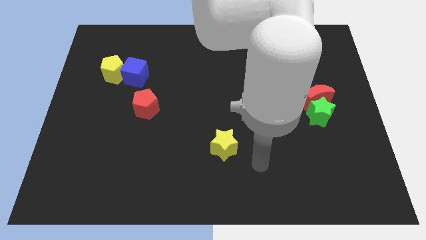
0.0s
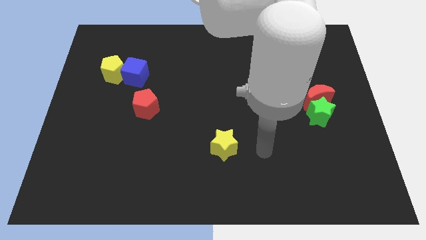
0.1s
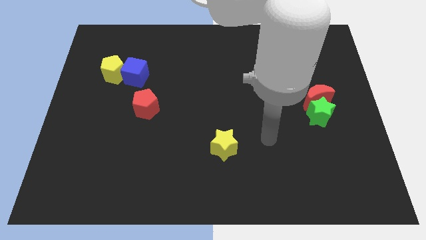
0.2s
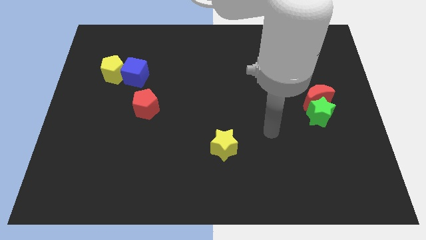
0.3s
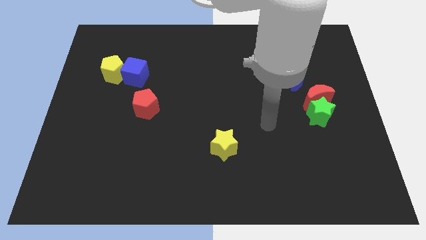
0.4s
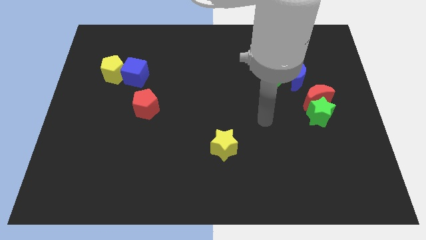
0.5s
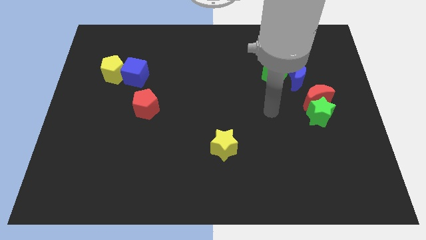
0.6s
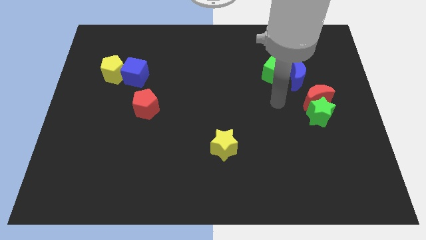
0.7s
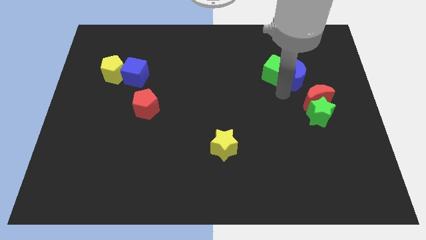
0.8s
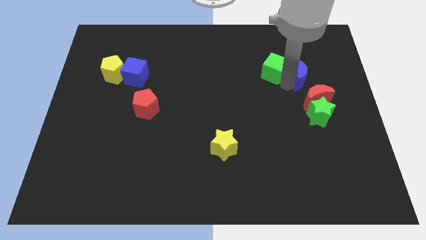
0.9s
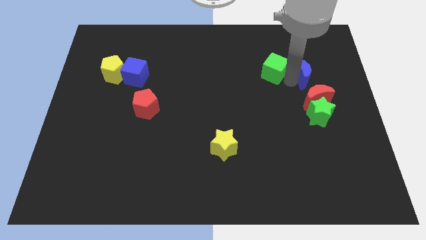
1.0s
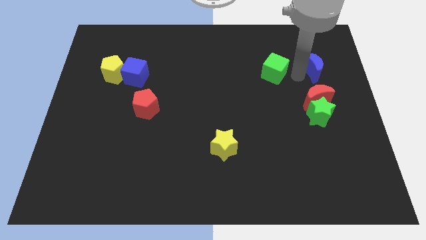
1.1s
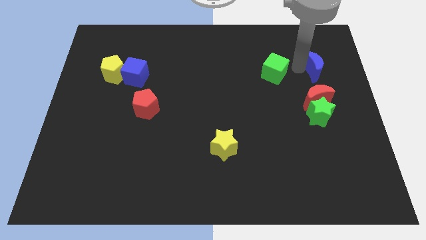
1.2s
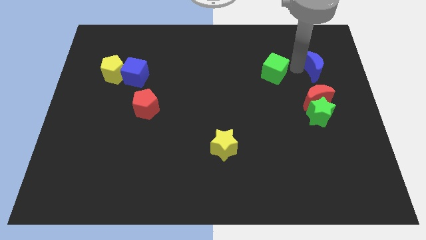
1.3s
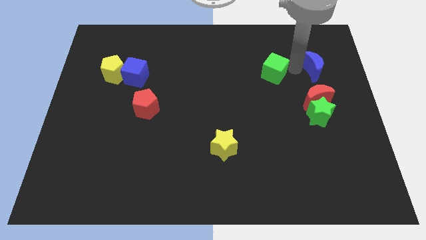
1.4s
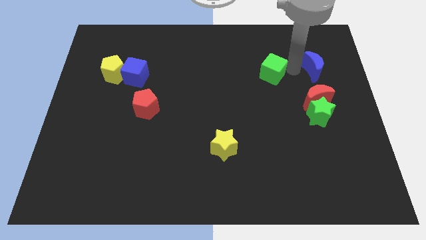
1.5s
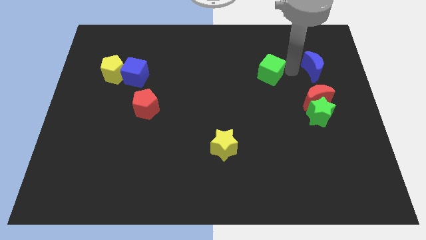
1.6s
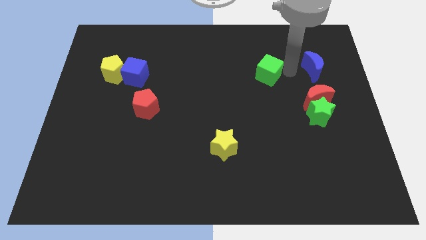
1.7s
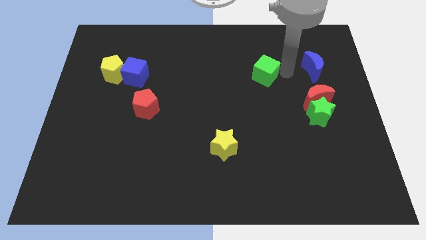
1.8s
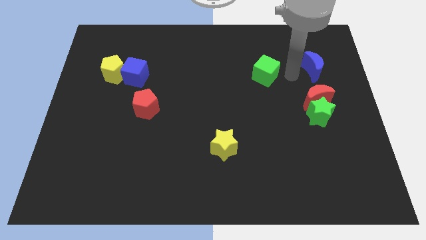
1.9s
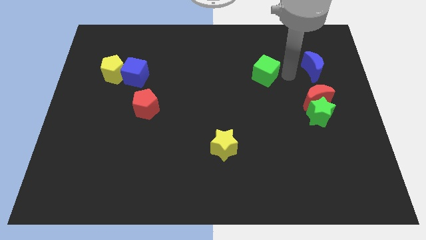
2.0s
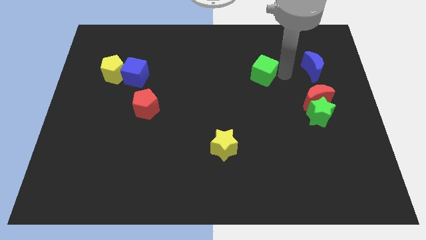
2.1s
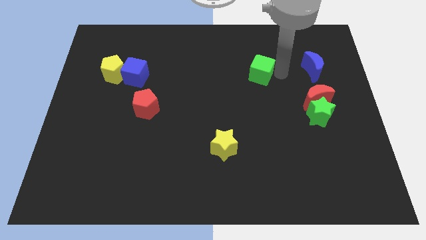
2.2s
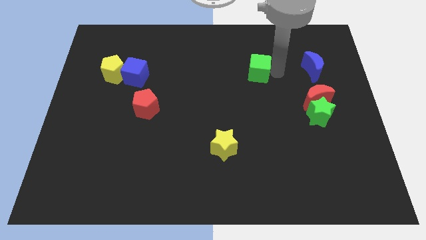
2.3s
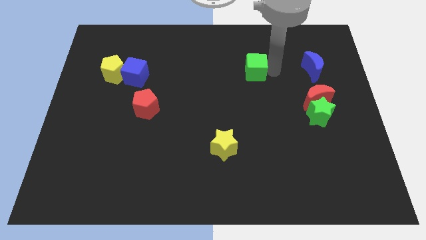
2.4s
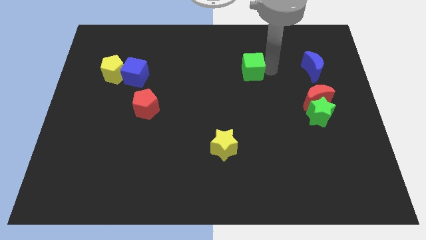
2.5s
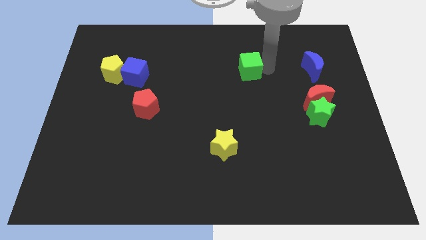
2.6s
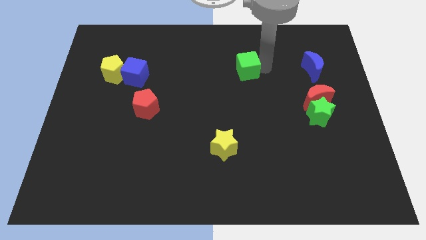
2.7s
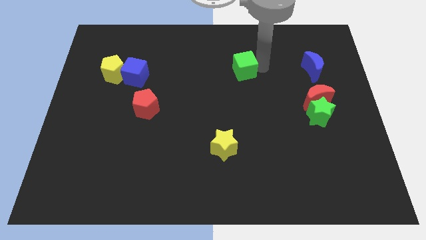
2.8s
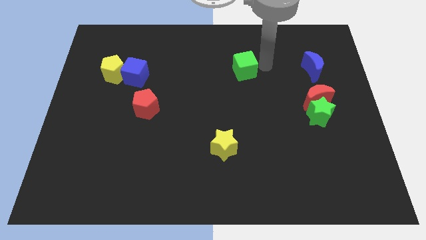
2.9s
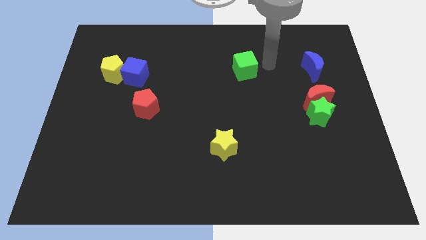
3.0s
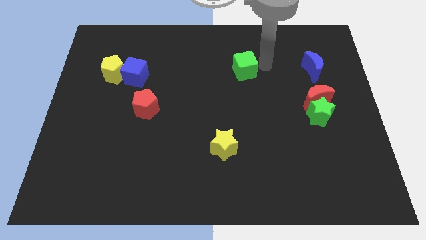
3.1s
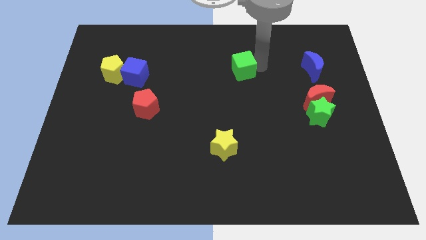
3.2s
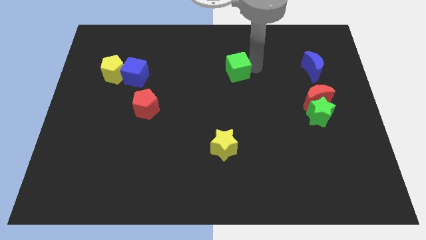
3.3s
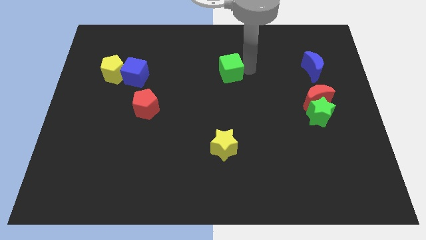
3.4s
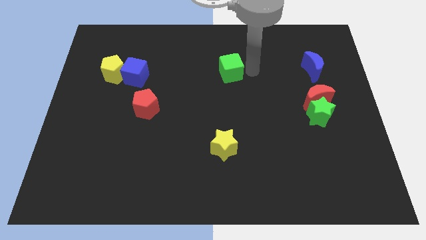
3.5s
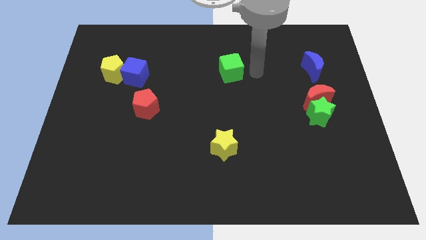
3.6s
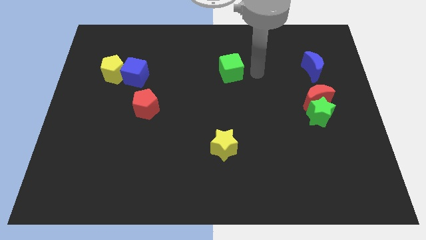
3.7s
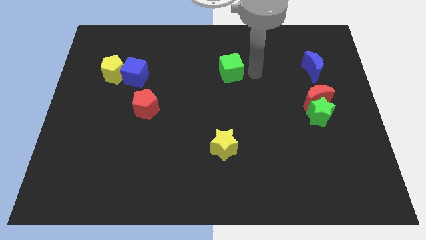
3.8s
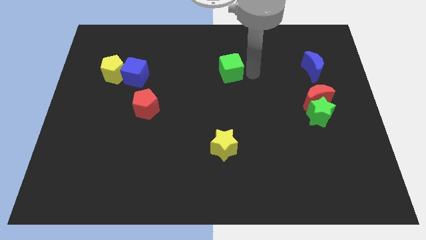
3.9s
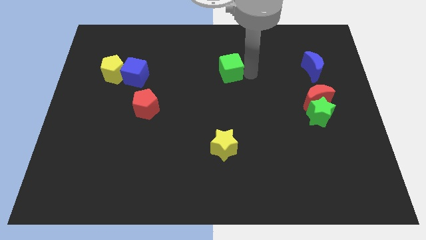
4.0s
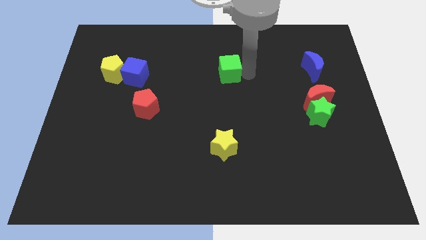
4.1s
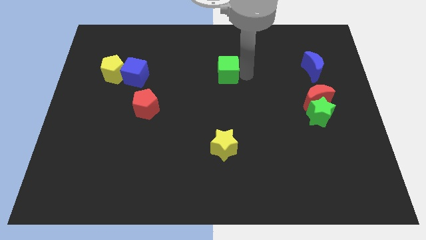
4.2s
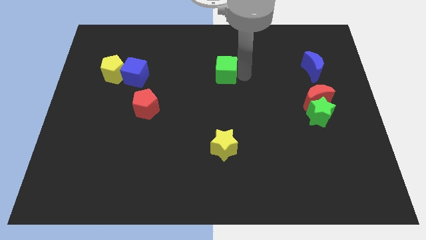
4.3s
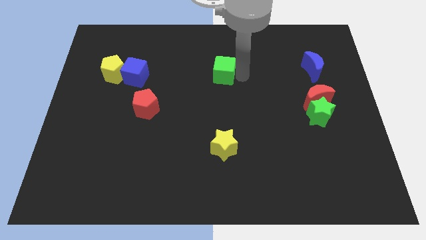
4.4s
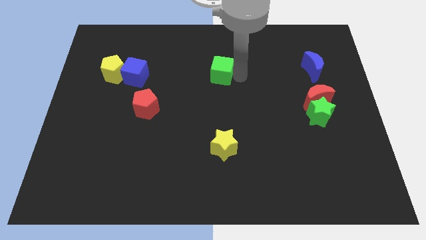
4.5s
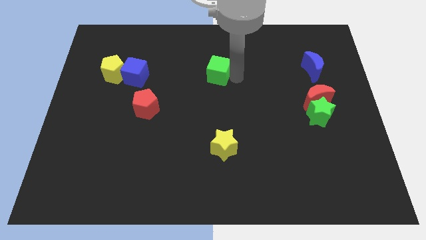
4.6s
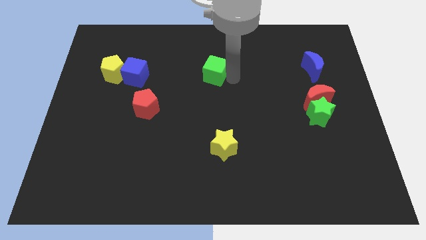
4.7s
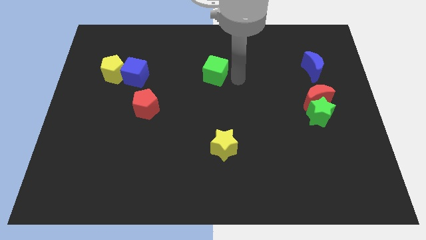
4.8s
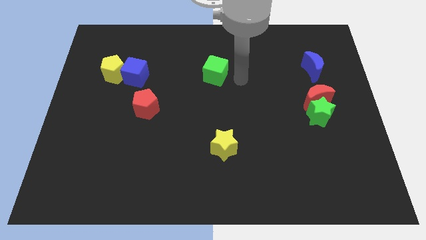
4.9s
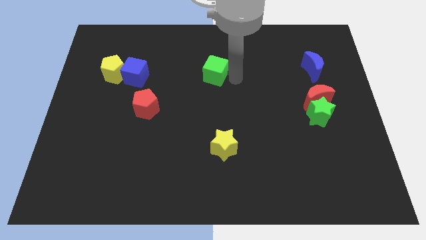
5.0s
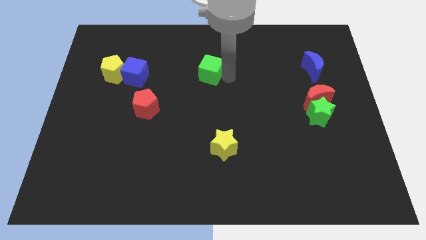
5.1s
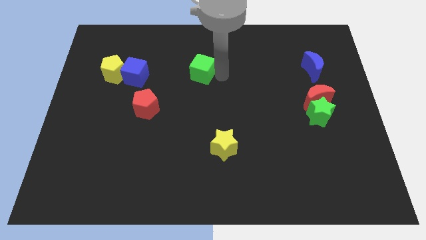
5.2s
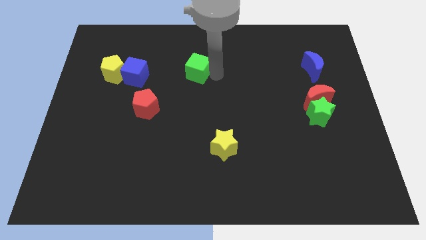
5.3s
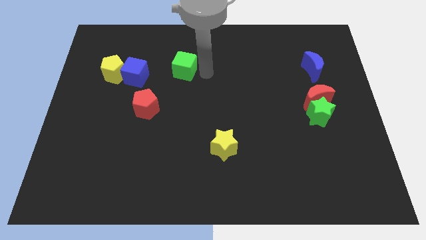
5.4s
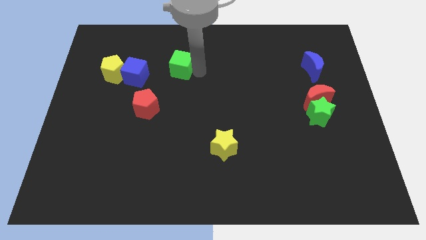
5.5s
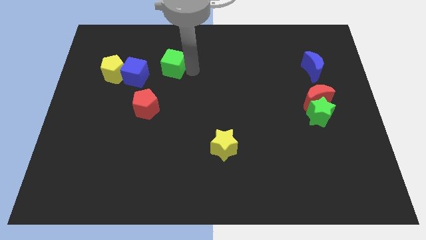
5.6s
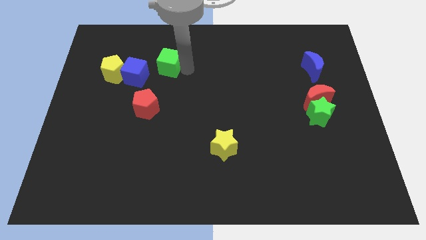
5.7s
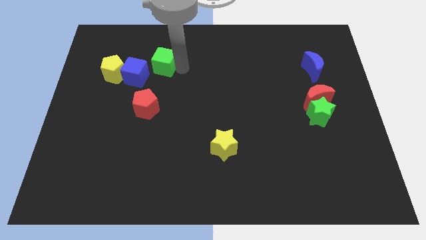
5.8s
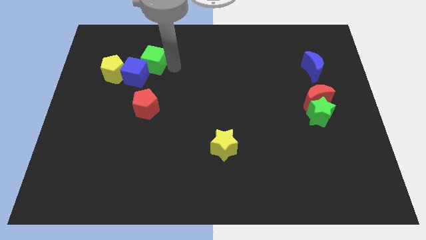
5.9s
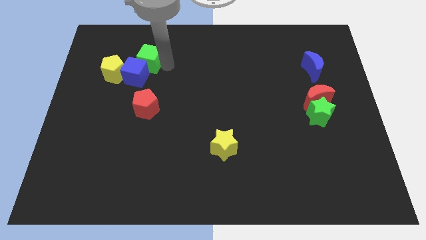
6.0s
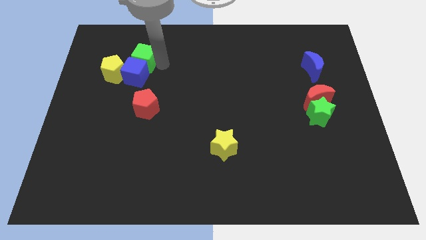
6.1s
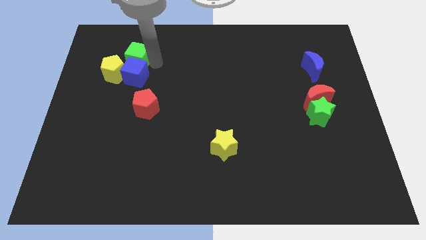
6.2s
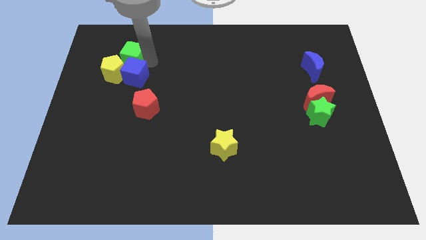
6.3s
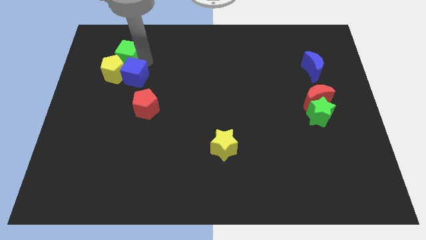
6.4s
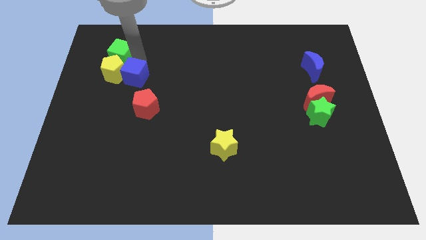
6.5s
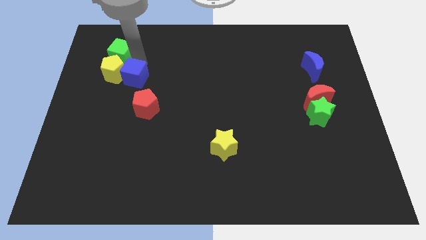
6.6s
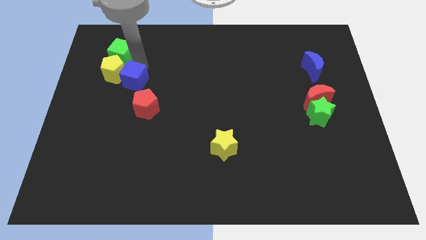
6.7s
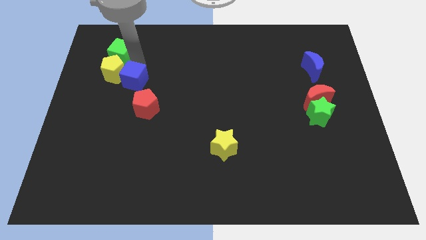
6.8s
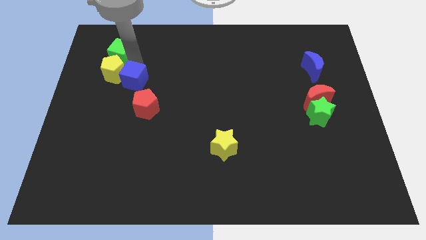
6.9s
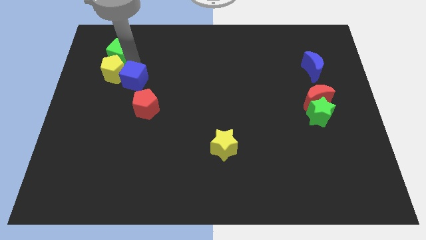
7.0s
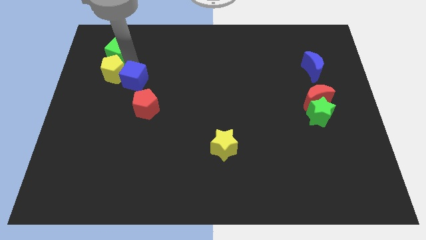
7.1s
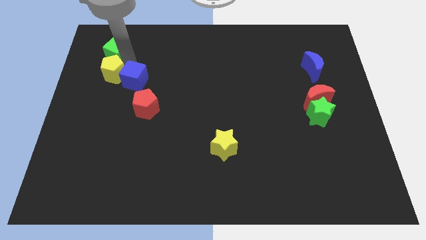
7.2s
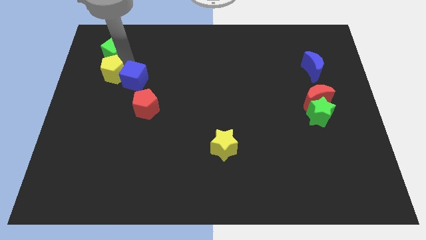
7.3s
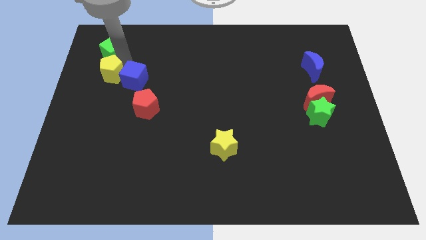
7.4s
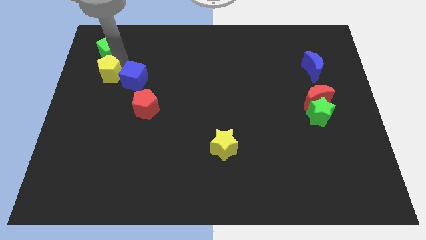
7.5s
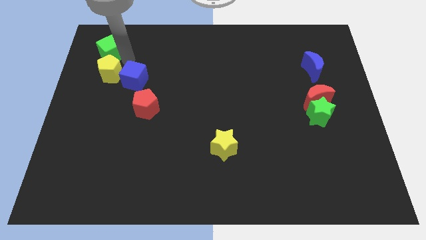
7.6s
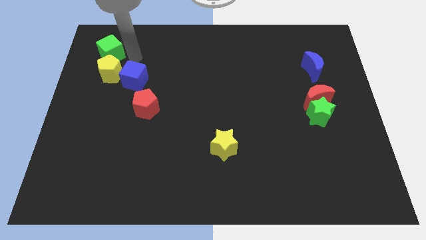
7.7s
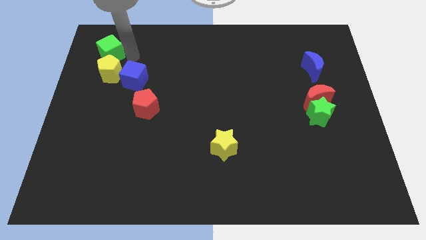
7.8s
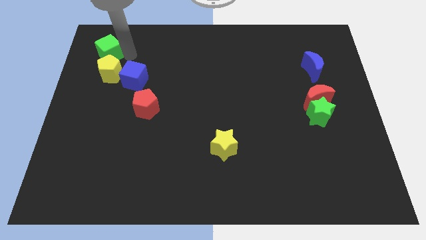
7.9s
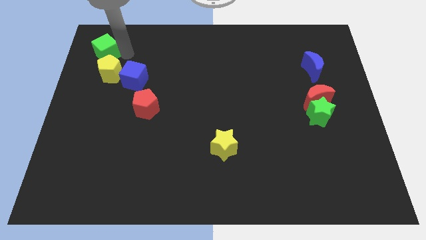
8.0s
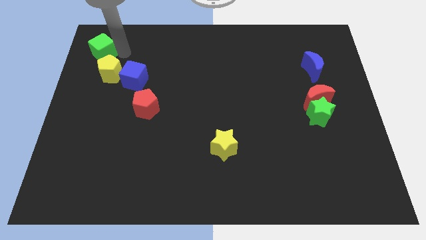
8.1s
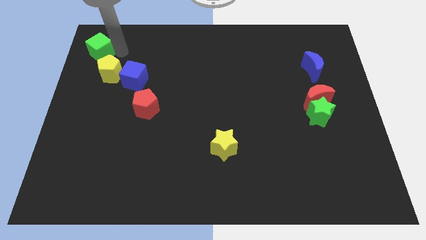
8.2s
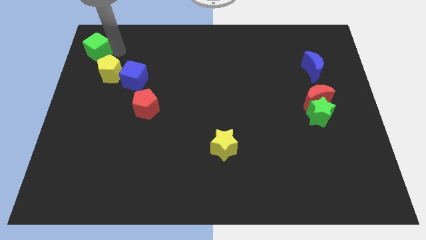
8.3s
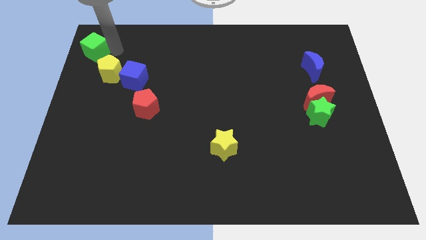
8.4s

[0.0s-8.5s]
push the green cube to the top left of the board
